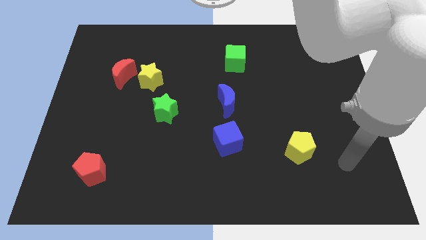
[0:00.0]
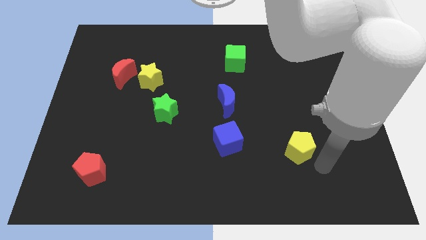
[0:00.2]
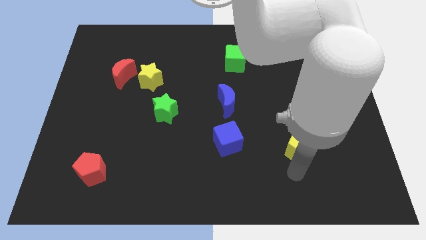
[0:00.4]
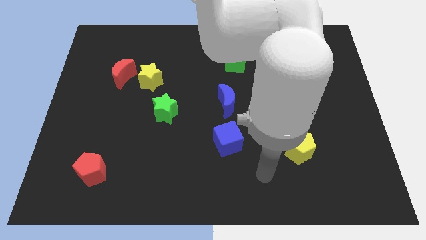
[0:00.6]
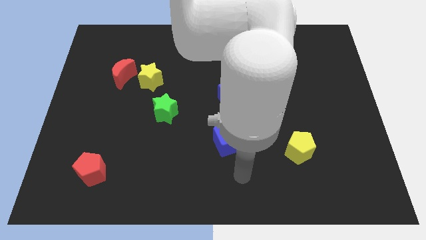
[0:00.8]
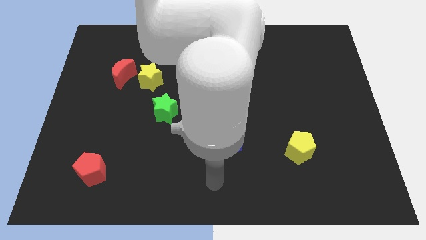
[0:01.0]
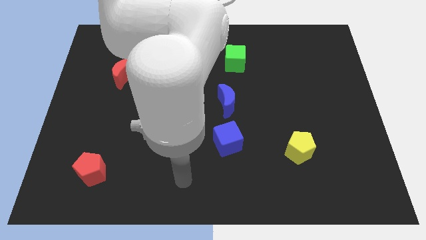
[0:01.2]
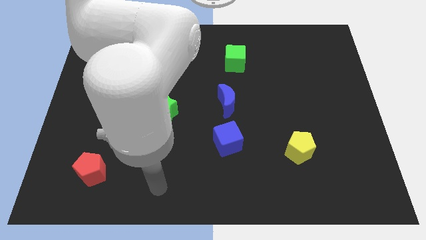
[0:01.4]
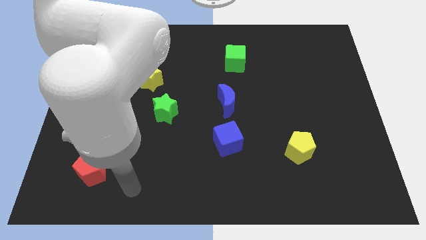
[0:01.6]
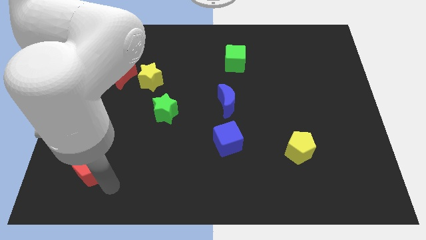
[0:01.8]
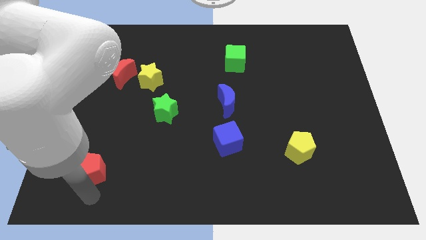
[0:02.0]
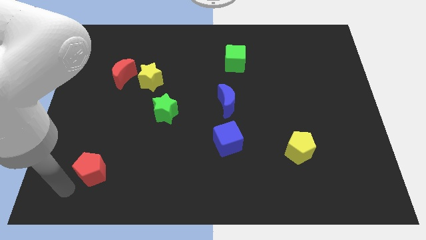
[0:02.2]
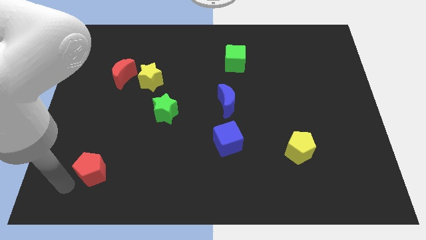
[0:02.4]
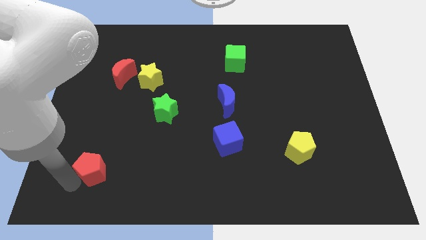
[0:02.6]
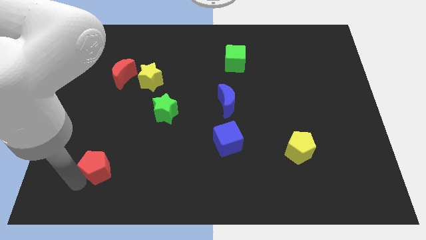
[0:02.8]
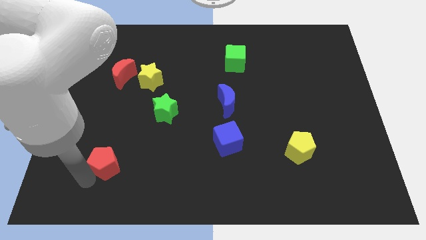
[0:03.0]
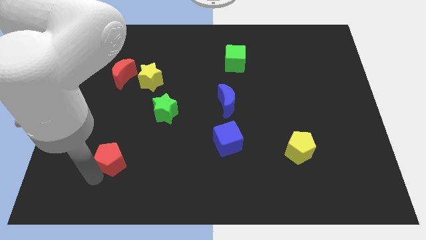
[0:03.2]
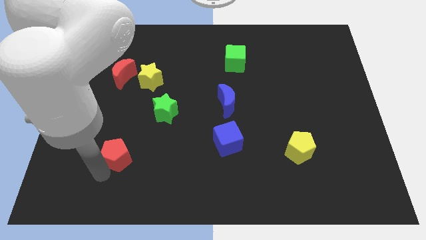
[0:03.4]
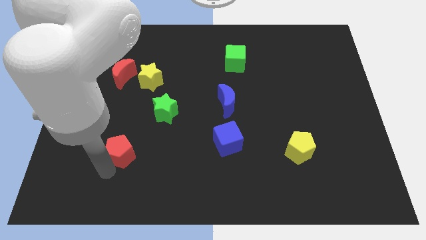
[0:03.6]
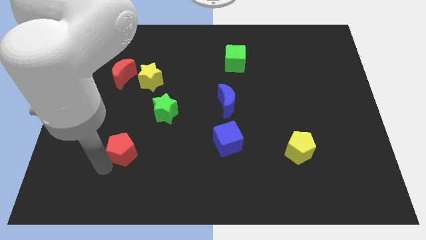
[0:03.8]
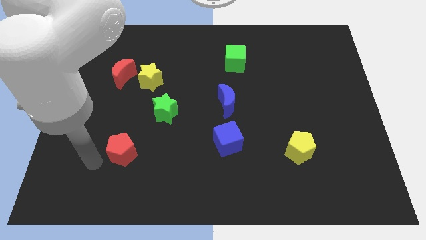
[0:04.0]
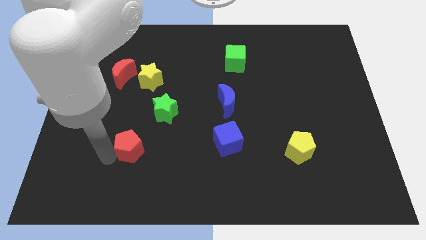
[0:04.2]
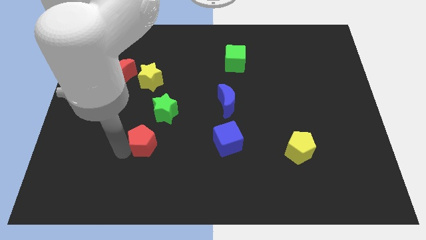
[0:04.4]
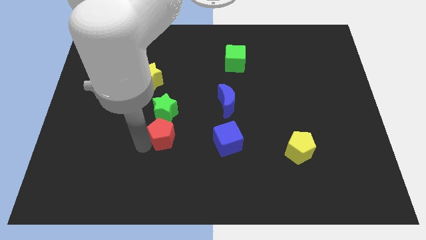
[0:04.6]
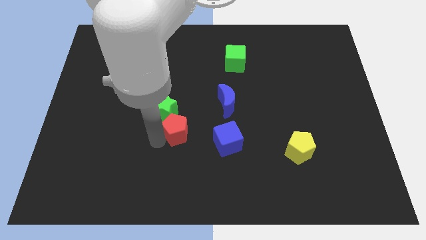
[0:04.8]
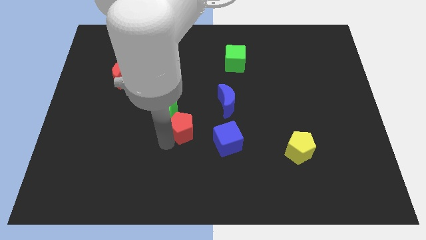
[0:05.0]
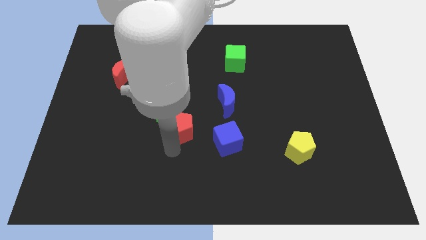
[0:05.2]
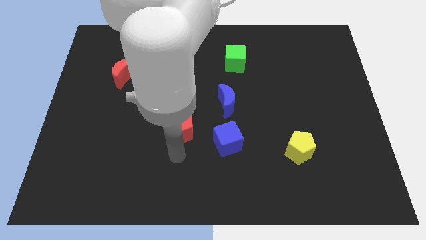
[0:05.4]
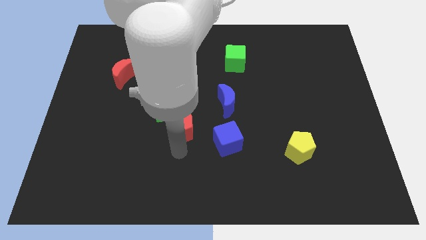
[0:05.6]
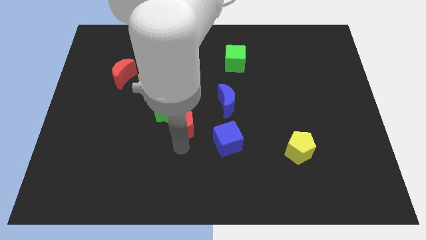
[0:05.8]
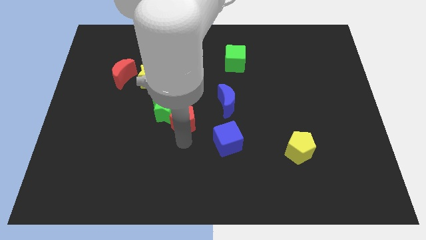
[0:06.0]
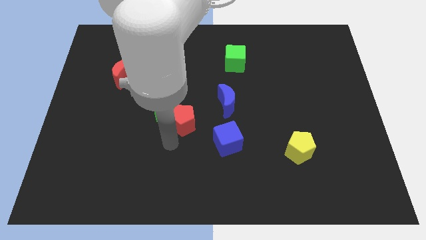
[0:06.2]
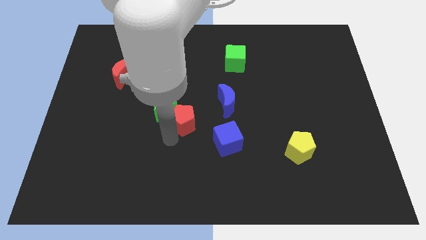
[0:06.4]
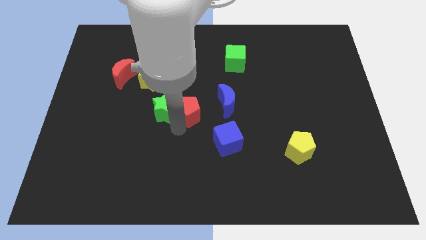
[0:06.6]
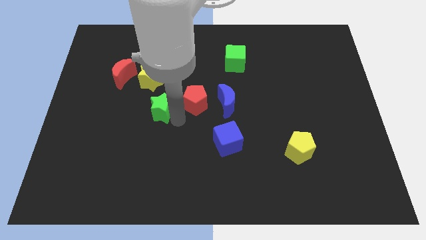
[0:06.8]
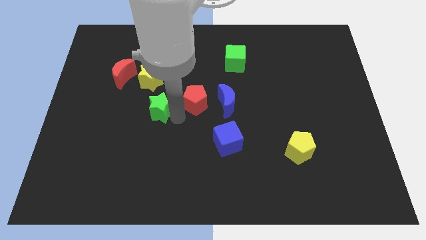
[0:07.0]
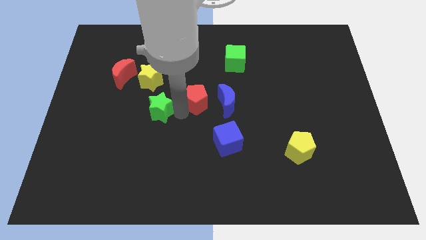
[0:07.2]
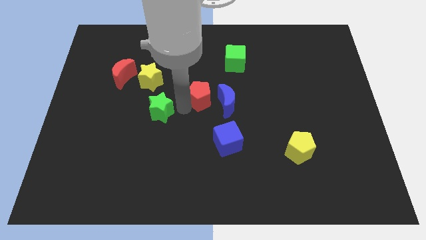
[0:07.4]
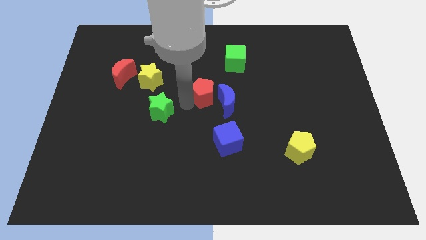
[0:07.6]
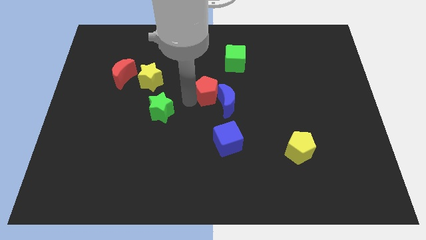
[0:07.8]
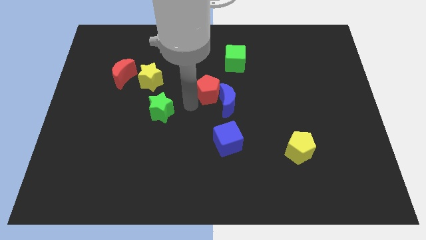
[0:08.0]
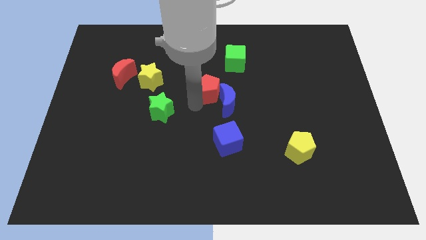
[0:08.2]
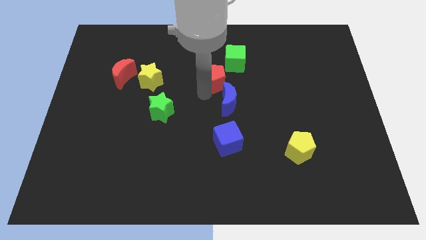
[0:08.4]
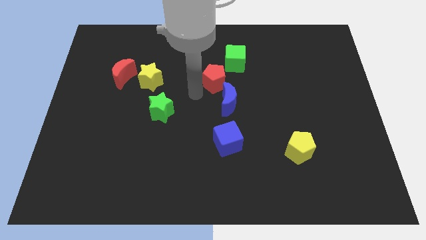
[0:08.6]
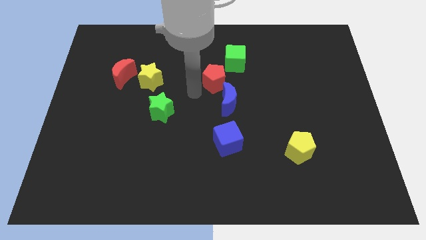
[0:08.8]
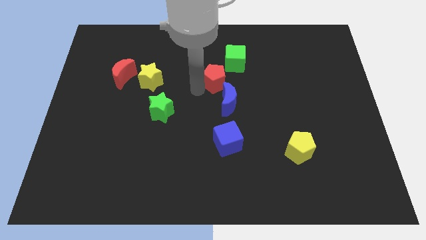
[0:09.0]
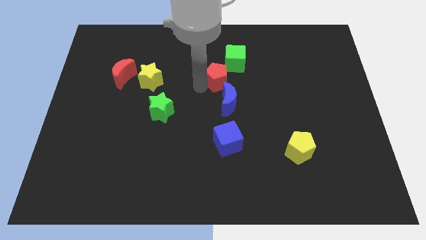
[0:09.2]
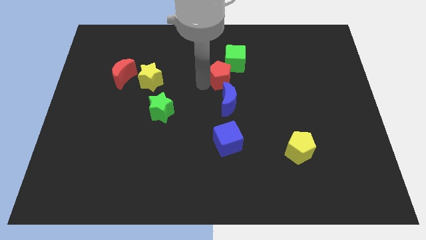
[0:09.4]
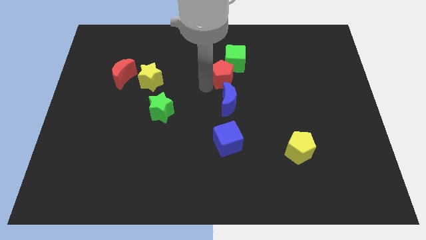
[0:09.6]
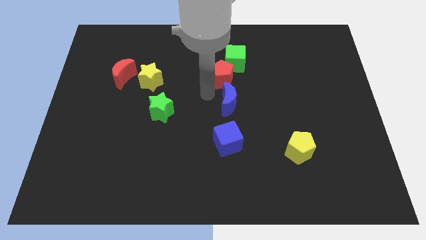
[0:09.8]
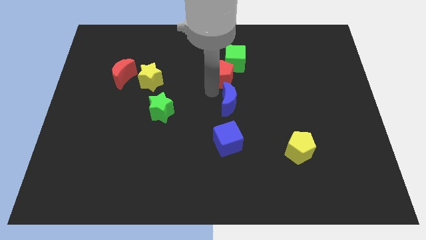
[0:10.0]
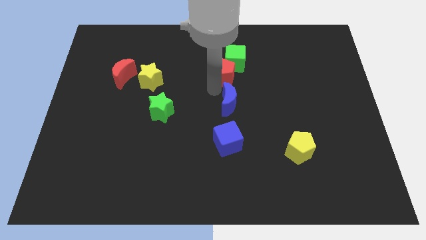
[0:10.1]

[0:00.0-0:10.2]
put the red pentagon close to the green cube

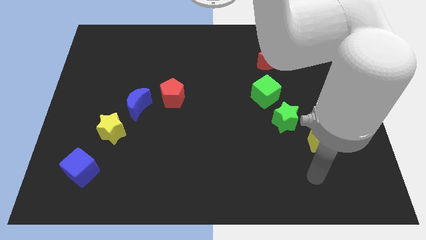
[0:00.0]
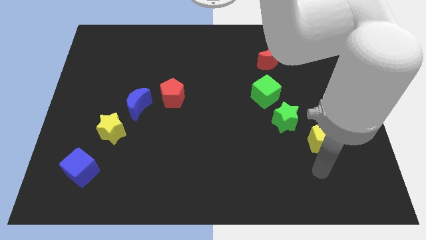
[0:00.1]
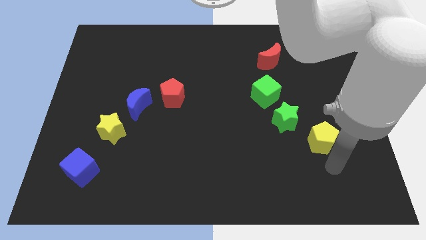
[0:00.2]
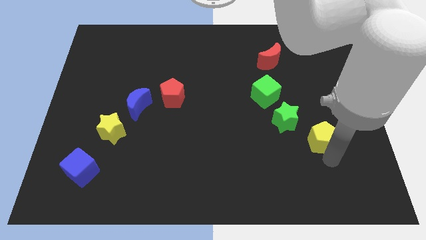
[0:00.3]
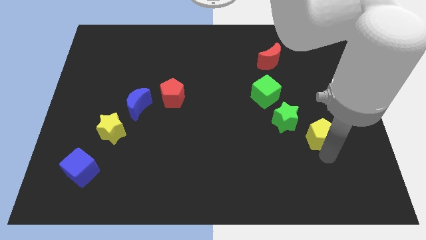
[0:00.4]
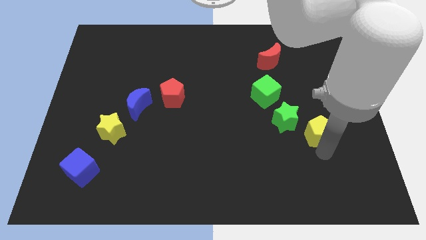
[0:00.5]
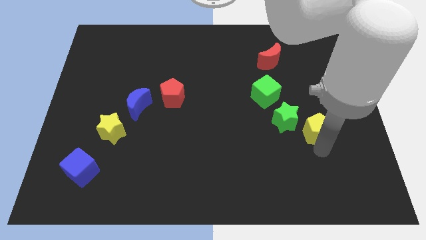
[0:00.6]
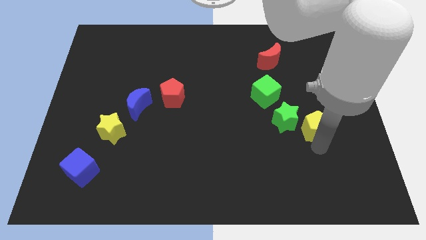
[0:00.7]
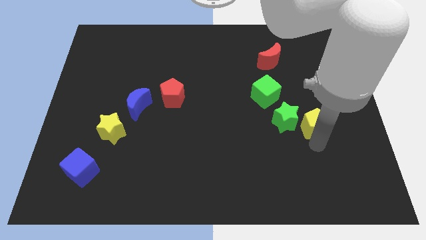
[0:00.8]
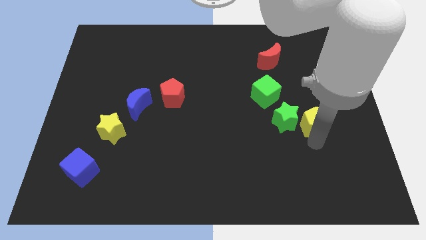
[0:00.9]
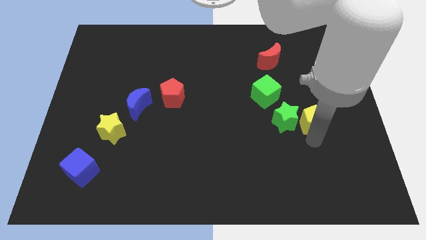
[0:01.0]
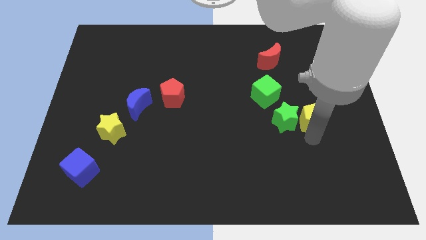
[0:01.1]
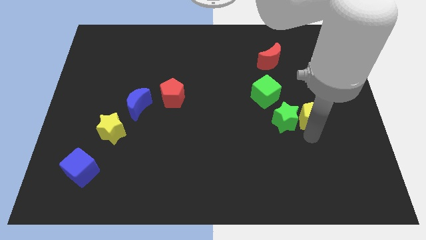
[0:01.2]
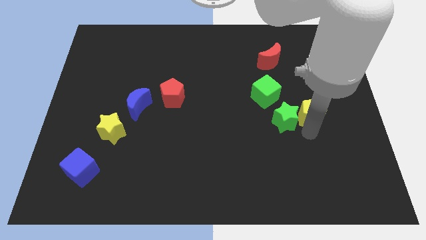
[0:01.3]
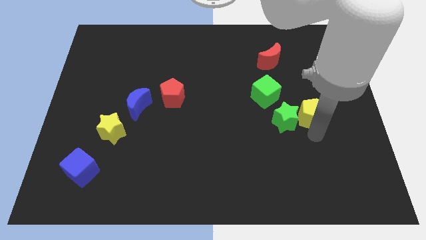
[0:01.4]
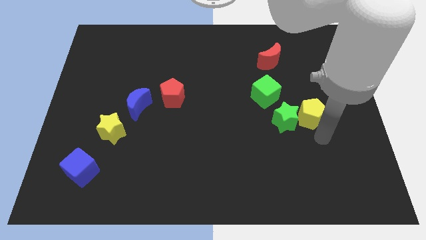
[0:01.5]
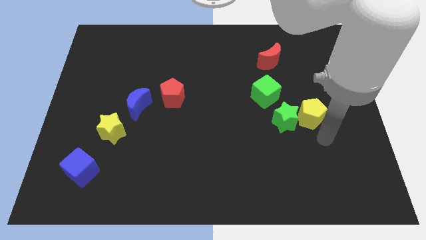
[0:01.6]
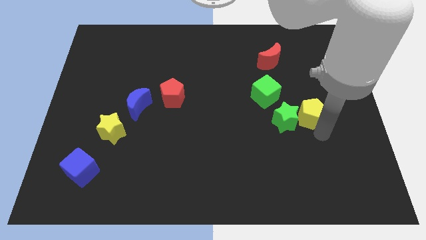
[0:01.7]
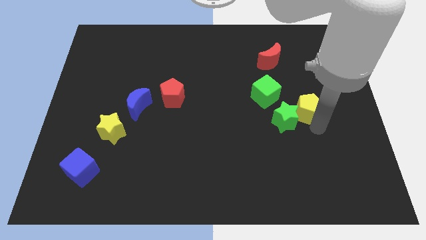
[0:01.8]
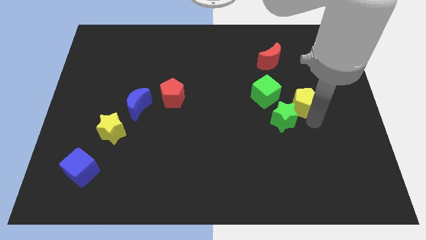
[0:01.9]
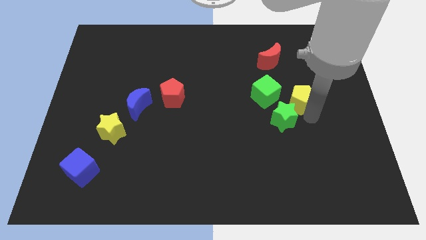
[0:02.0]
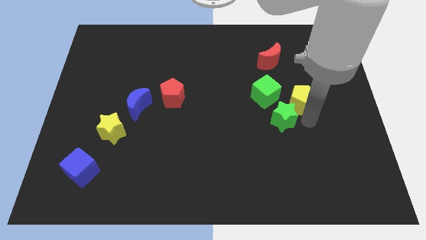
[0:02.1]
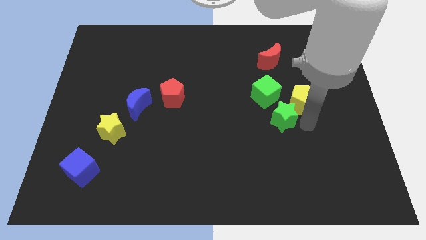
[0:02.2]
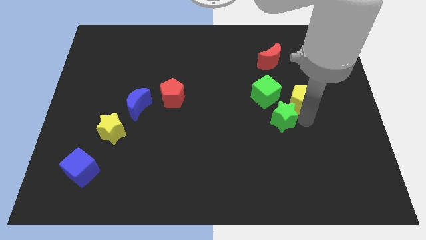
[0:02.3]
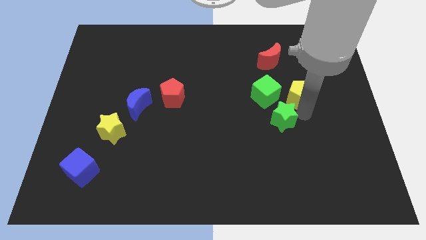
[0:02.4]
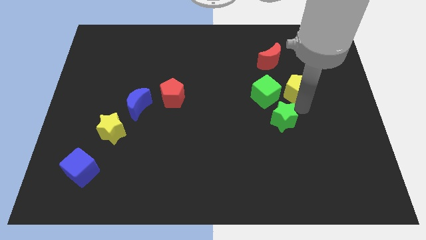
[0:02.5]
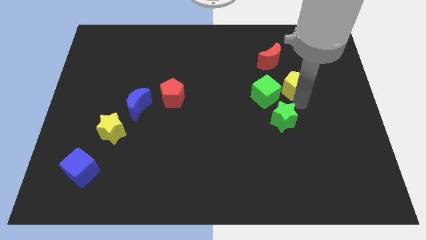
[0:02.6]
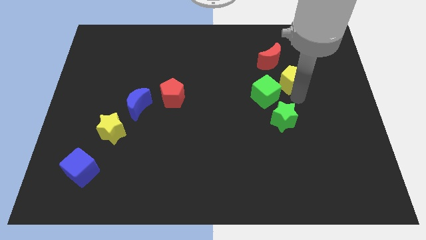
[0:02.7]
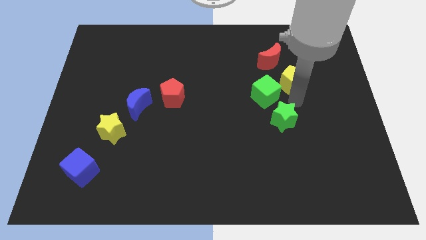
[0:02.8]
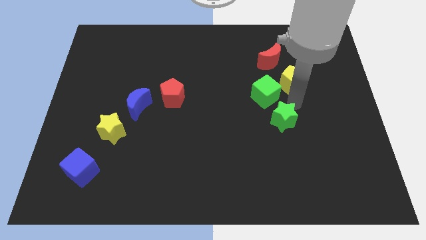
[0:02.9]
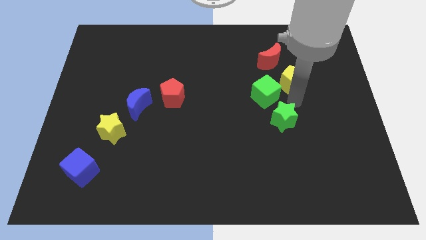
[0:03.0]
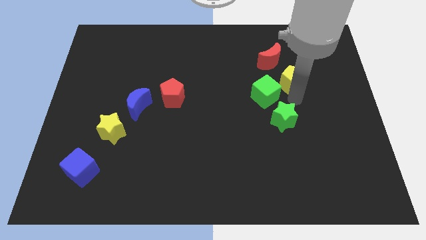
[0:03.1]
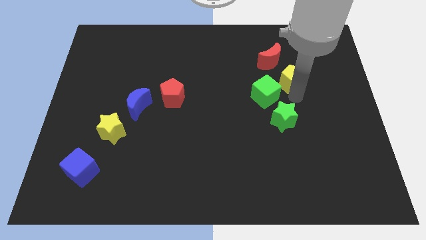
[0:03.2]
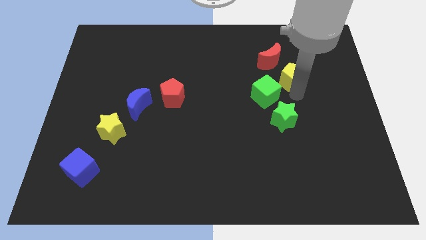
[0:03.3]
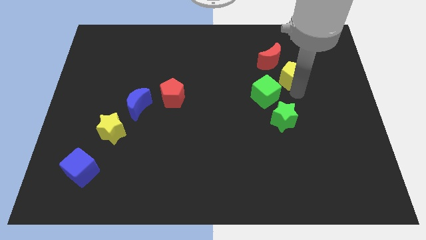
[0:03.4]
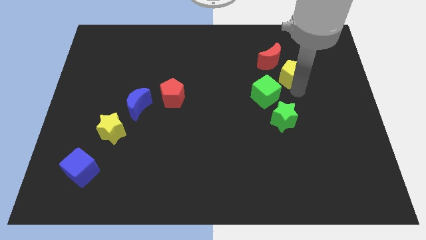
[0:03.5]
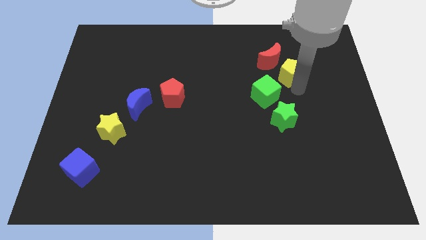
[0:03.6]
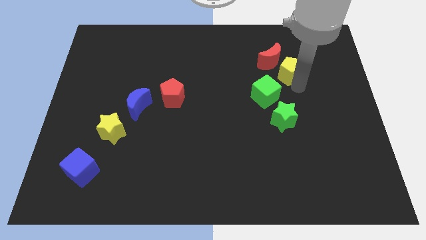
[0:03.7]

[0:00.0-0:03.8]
slide the yellow pentagon close to the red moon
